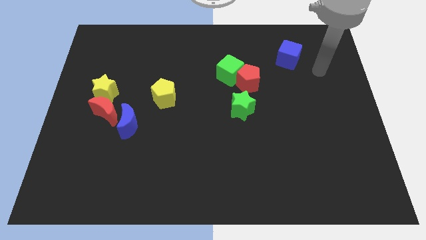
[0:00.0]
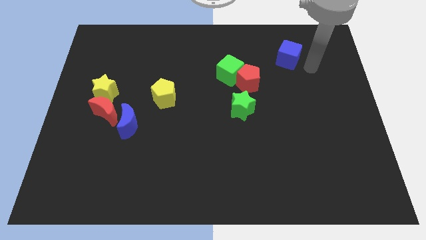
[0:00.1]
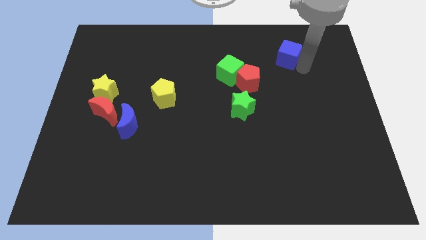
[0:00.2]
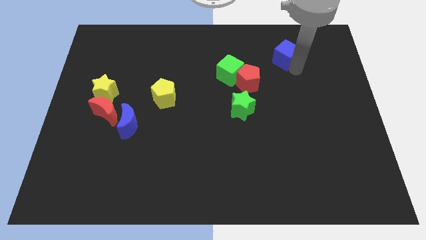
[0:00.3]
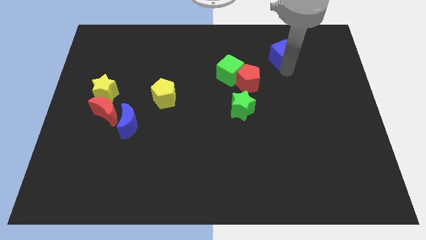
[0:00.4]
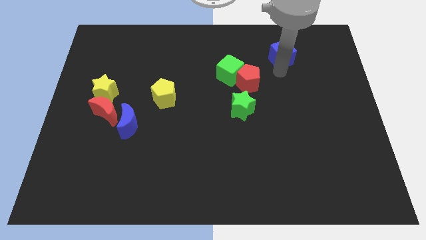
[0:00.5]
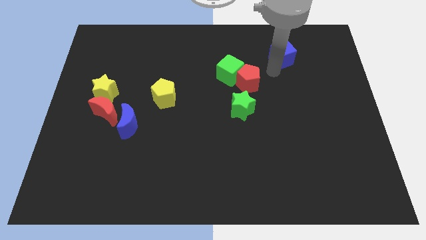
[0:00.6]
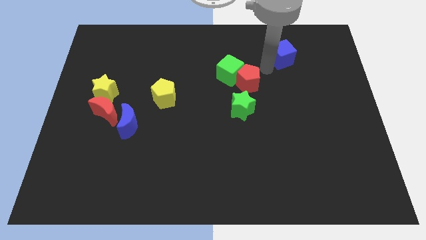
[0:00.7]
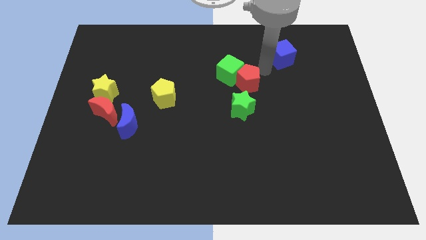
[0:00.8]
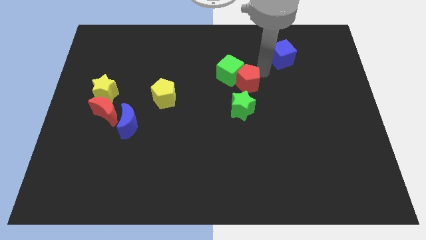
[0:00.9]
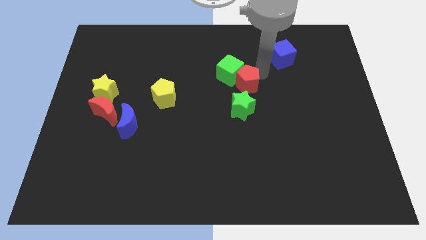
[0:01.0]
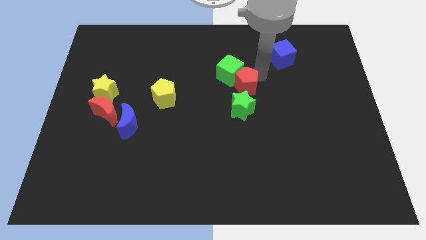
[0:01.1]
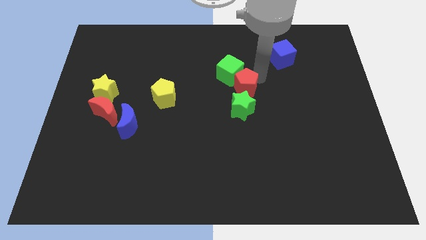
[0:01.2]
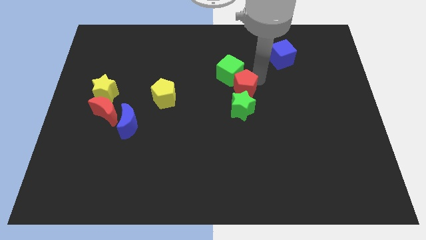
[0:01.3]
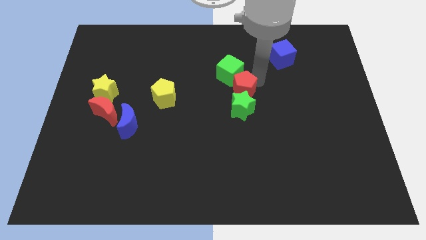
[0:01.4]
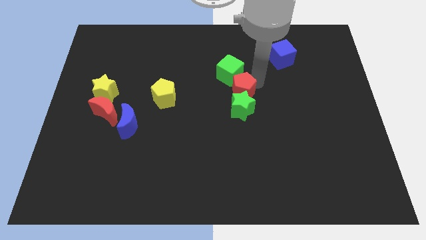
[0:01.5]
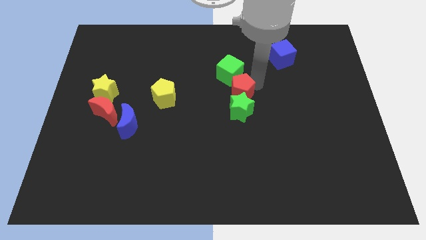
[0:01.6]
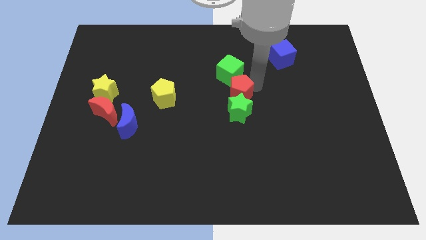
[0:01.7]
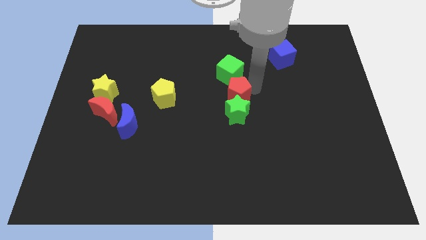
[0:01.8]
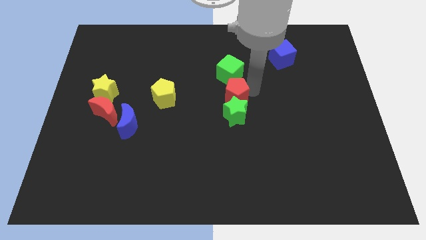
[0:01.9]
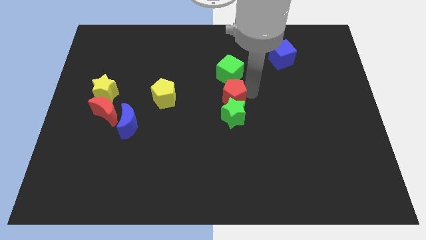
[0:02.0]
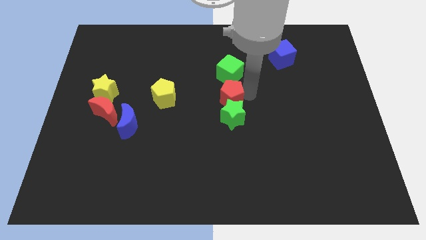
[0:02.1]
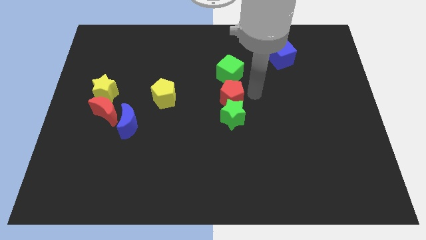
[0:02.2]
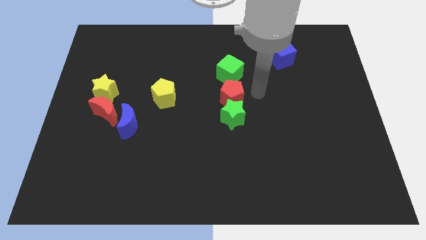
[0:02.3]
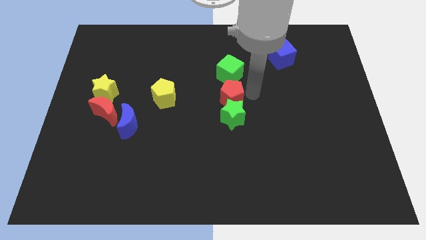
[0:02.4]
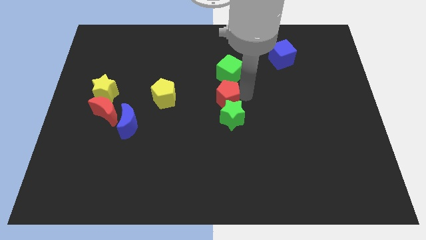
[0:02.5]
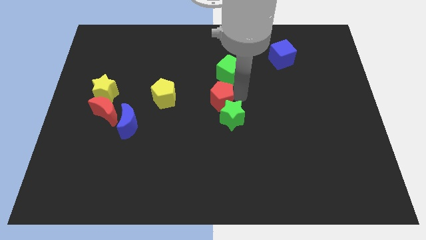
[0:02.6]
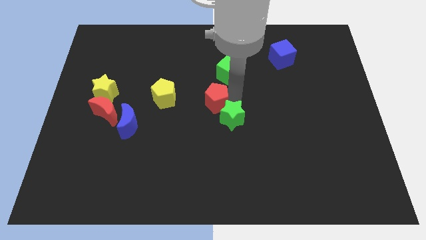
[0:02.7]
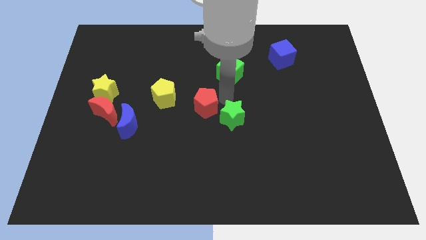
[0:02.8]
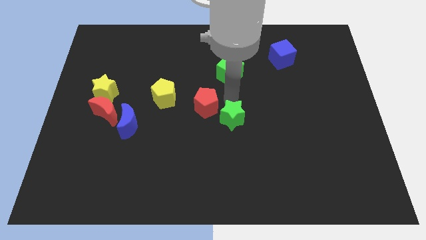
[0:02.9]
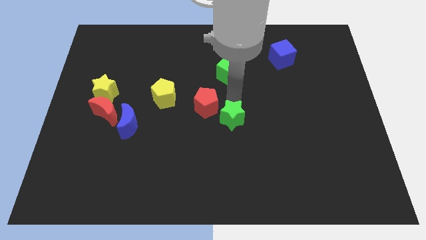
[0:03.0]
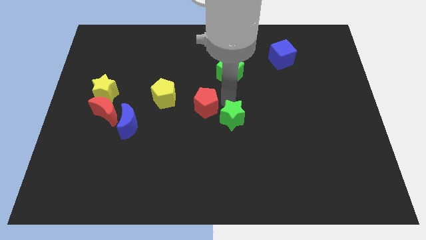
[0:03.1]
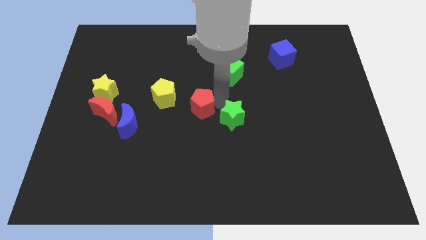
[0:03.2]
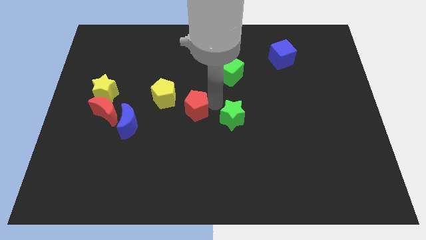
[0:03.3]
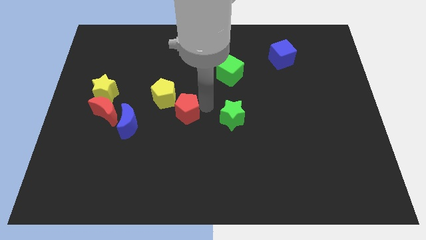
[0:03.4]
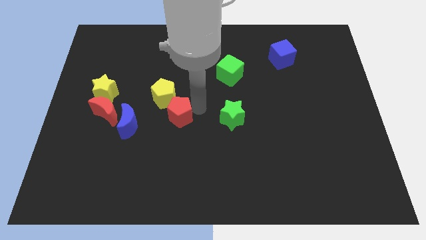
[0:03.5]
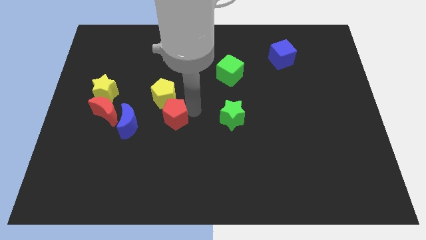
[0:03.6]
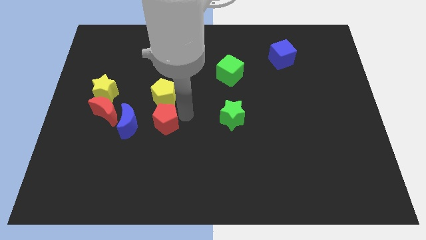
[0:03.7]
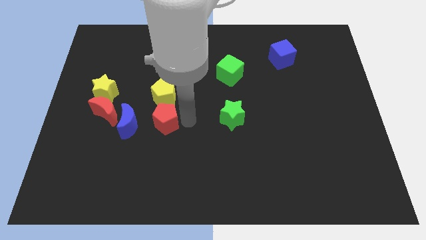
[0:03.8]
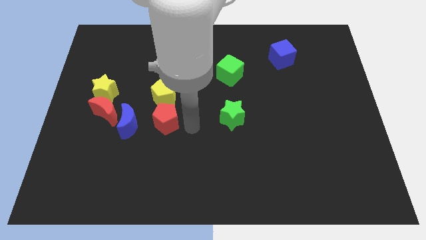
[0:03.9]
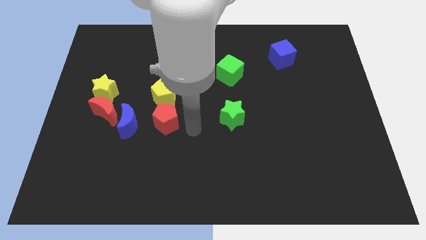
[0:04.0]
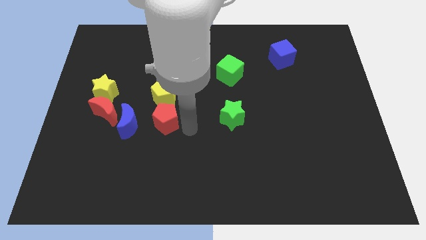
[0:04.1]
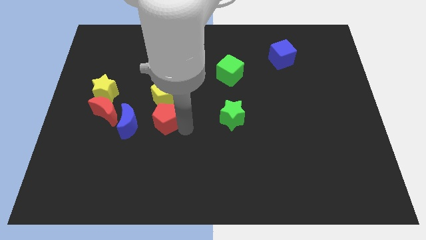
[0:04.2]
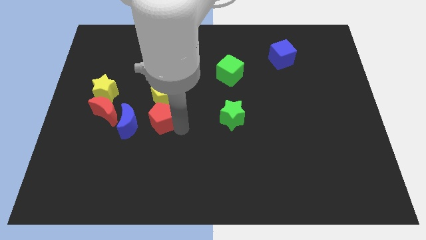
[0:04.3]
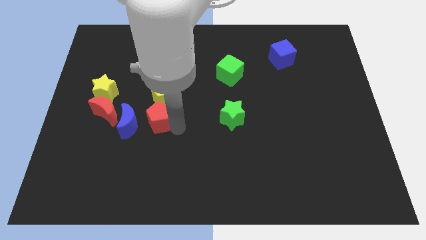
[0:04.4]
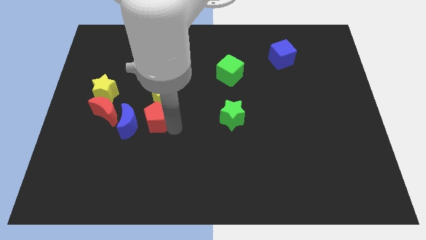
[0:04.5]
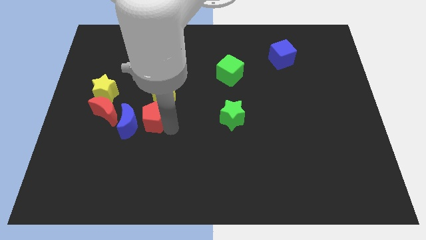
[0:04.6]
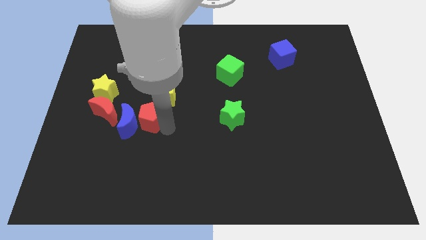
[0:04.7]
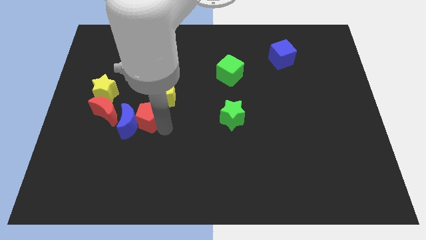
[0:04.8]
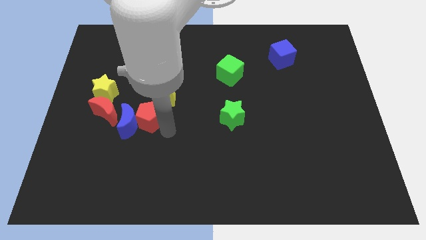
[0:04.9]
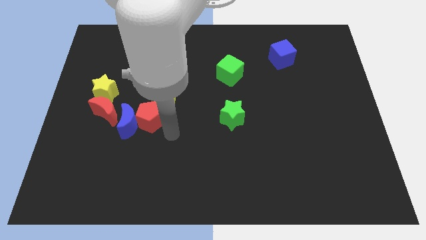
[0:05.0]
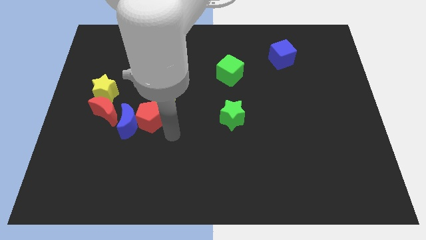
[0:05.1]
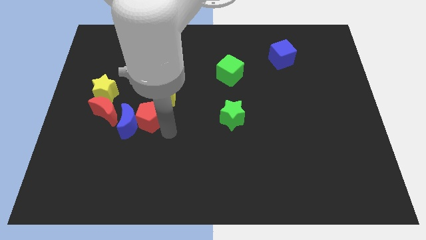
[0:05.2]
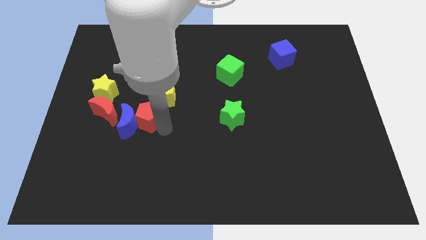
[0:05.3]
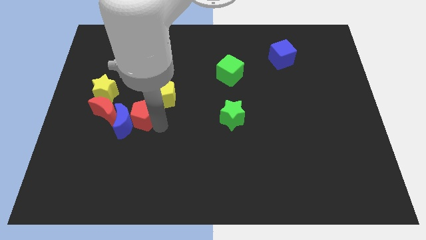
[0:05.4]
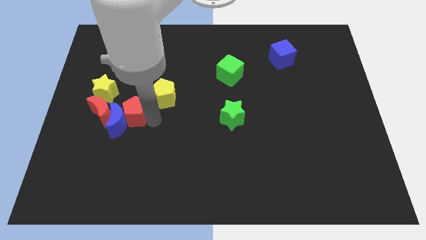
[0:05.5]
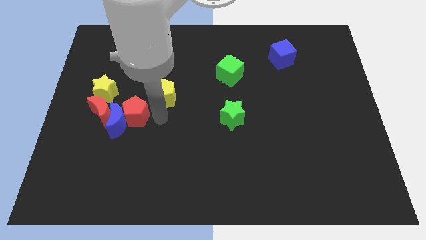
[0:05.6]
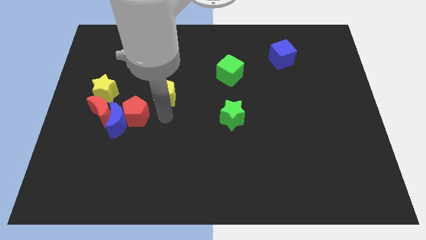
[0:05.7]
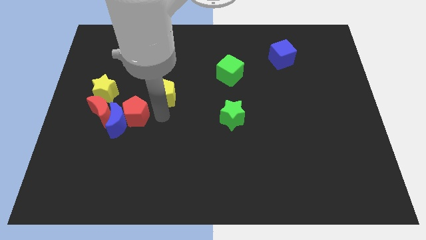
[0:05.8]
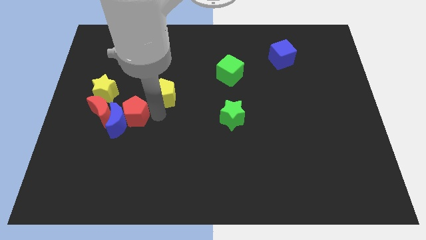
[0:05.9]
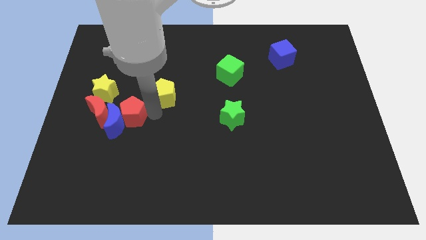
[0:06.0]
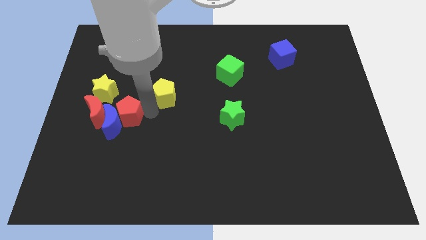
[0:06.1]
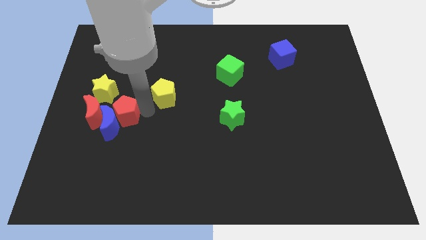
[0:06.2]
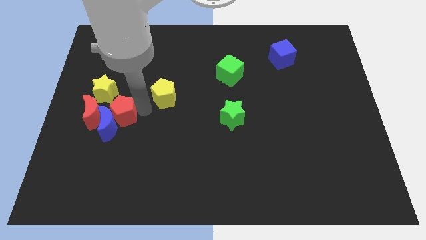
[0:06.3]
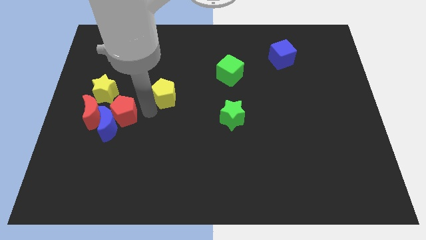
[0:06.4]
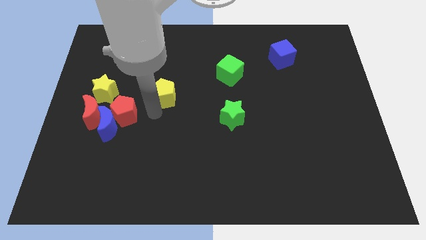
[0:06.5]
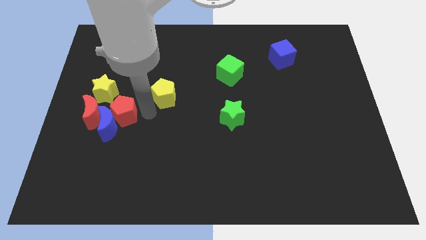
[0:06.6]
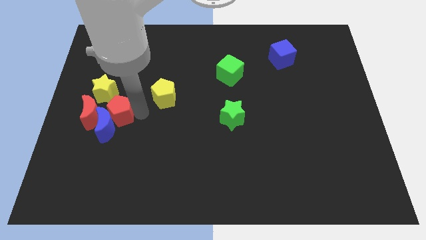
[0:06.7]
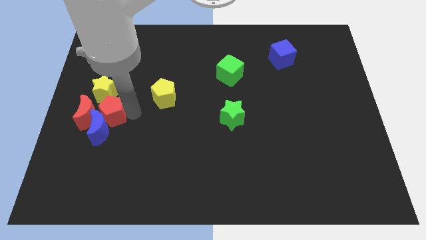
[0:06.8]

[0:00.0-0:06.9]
put the red pentagon next to the red moon

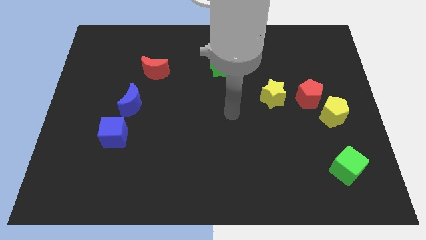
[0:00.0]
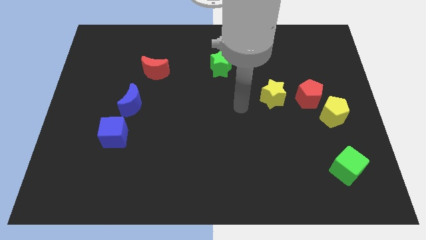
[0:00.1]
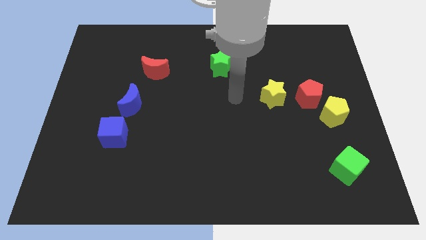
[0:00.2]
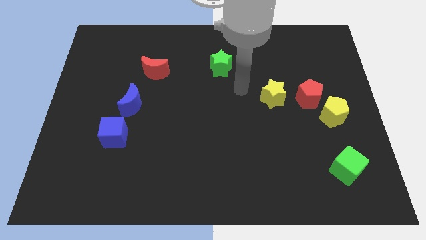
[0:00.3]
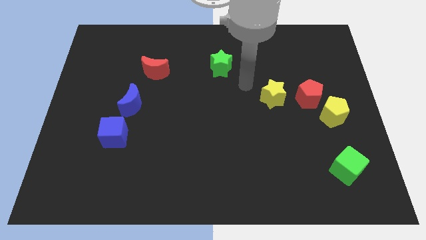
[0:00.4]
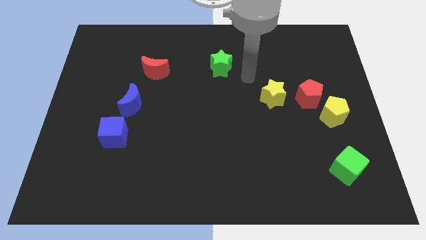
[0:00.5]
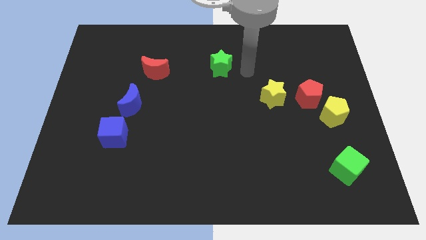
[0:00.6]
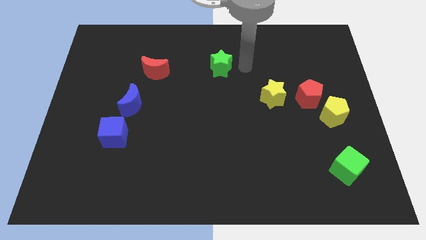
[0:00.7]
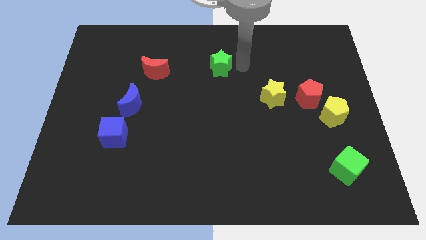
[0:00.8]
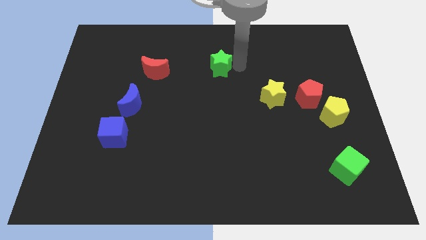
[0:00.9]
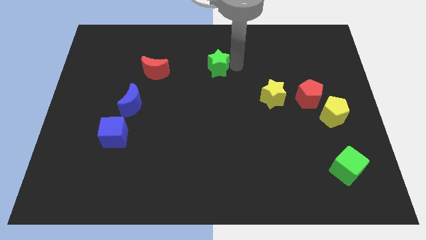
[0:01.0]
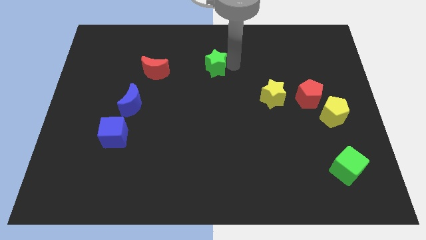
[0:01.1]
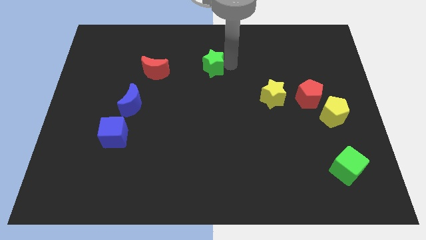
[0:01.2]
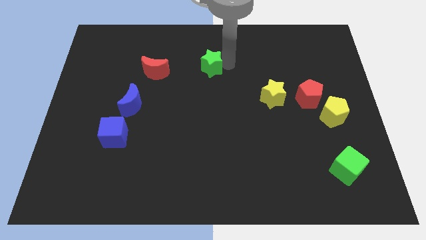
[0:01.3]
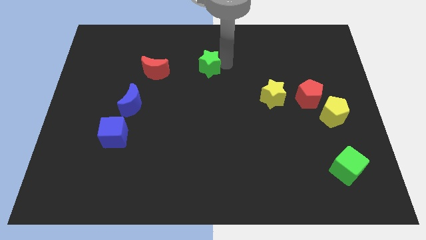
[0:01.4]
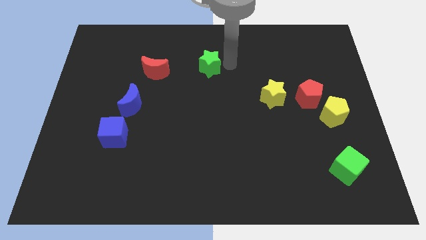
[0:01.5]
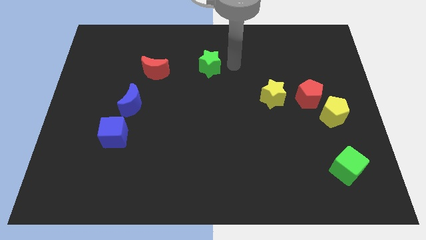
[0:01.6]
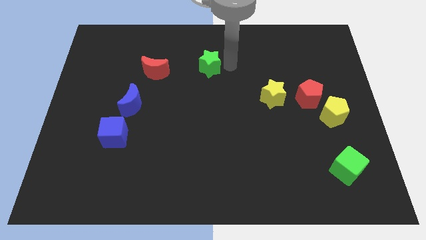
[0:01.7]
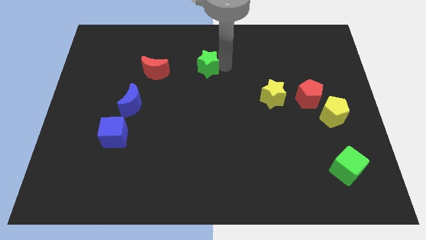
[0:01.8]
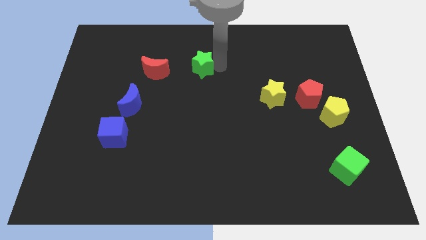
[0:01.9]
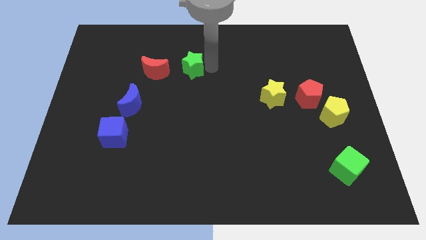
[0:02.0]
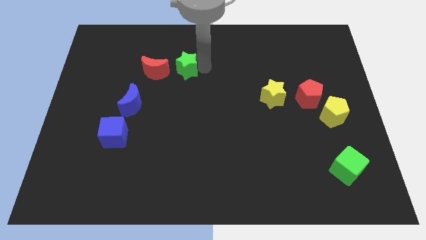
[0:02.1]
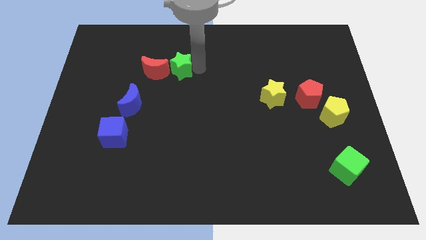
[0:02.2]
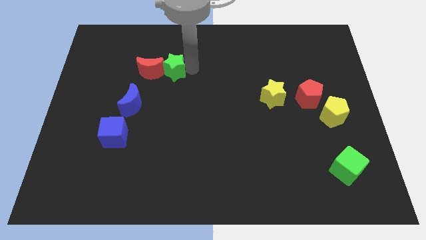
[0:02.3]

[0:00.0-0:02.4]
slide the green star close to the red moon
